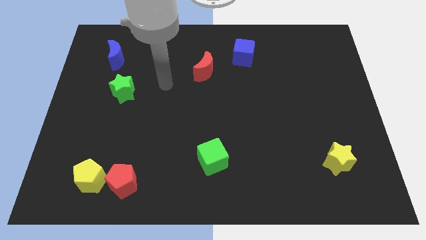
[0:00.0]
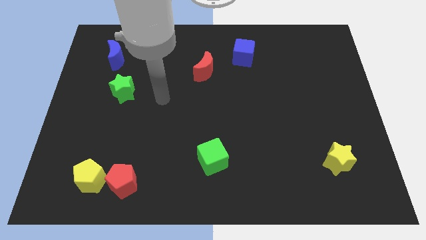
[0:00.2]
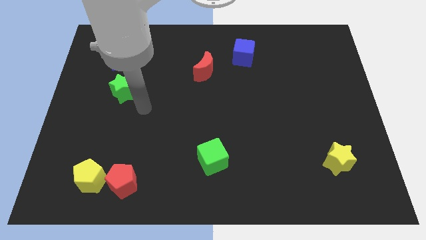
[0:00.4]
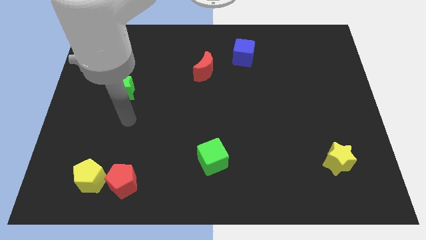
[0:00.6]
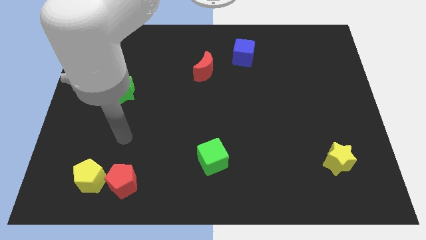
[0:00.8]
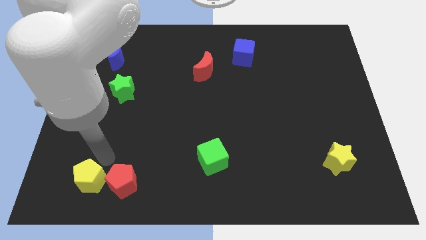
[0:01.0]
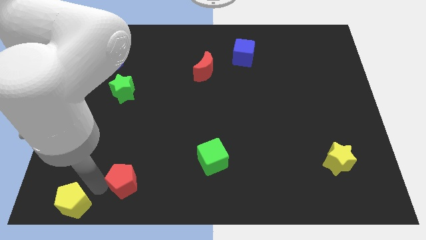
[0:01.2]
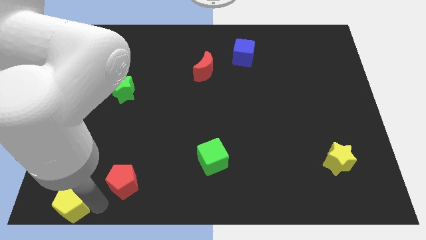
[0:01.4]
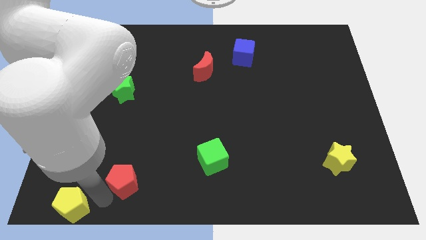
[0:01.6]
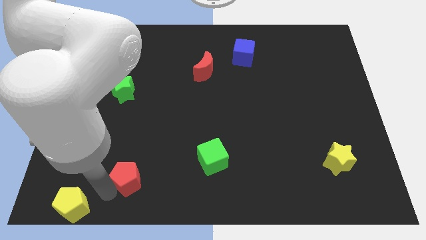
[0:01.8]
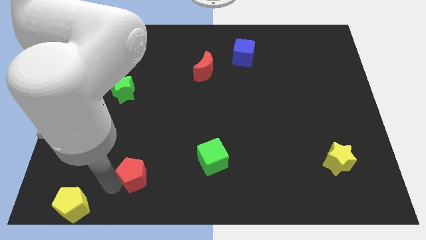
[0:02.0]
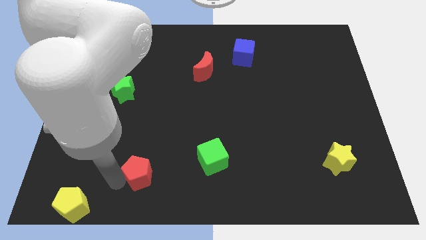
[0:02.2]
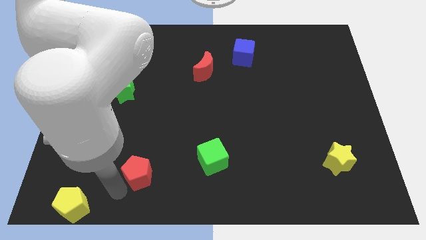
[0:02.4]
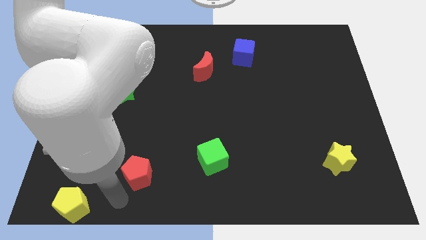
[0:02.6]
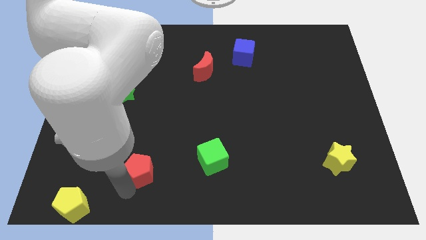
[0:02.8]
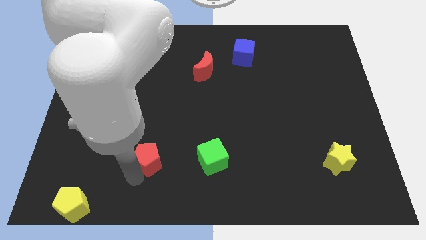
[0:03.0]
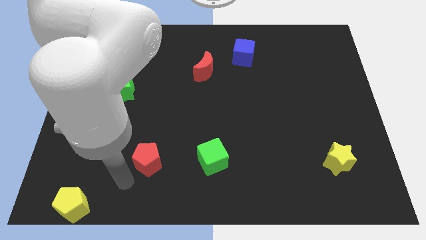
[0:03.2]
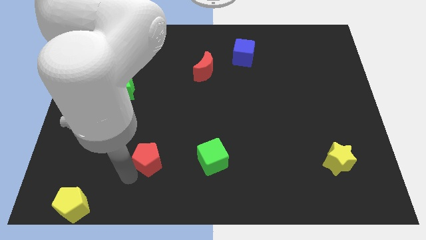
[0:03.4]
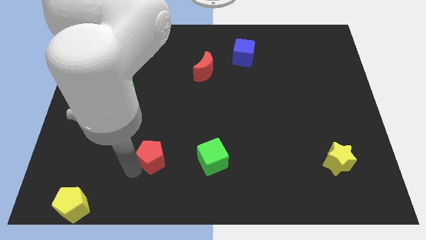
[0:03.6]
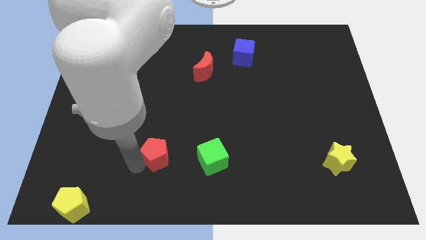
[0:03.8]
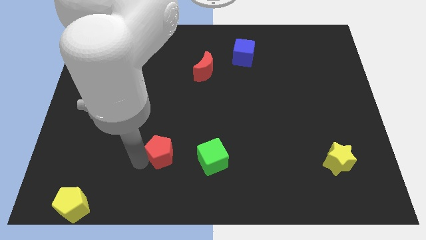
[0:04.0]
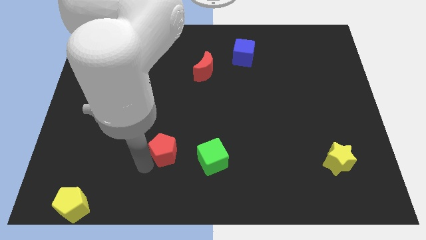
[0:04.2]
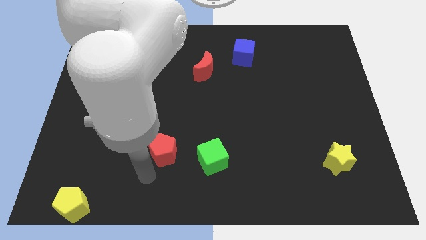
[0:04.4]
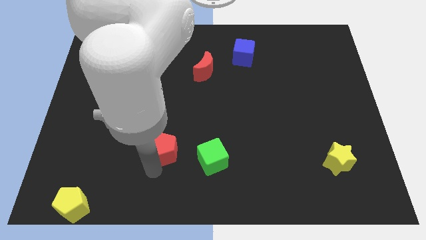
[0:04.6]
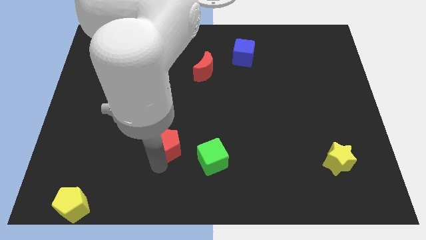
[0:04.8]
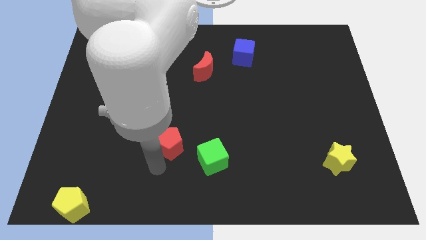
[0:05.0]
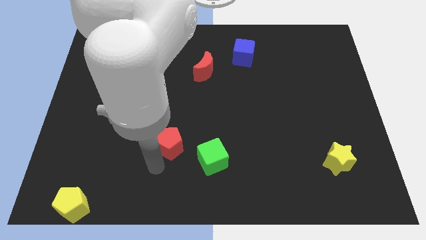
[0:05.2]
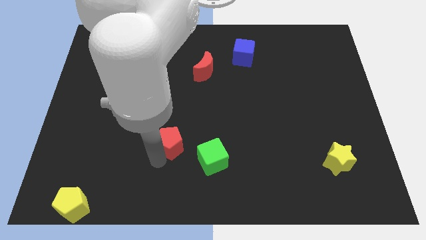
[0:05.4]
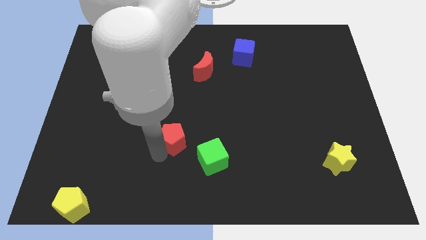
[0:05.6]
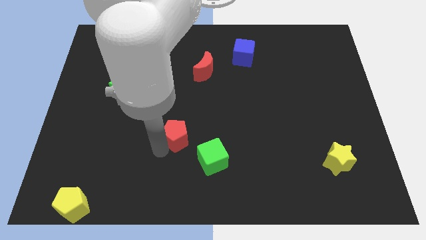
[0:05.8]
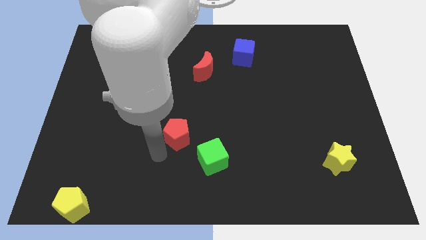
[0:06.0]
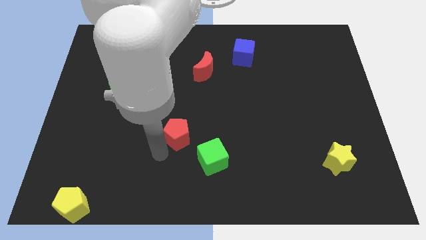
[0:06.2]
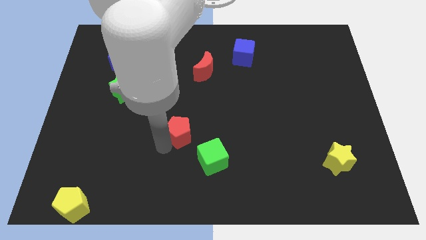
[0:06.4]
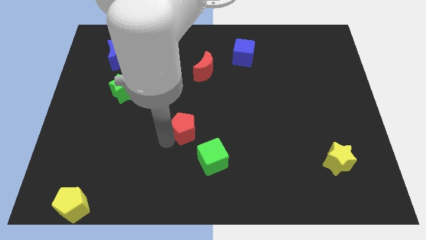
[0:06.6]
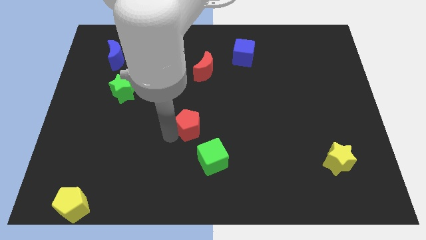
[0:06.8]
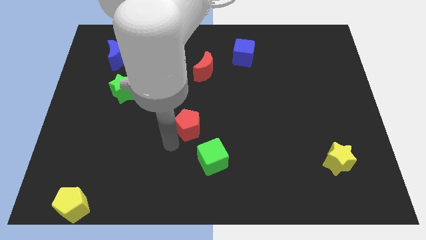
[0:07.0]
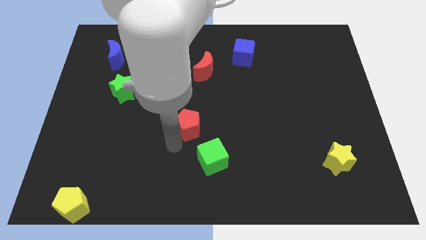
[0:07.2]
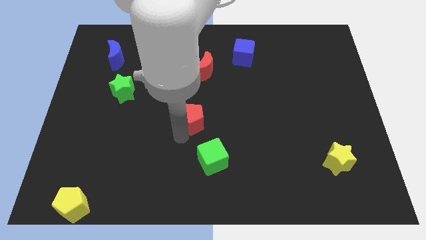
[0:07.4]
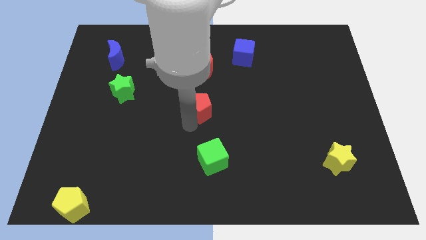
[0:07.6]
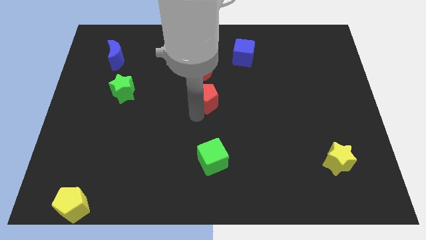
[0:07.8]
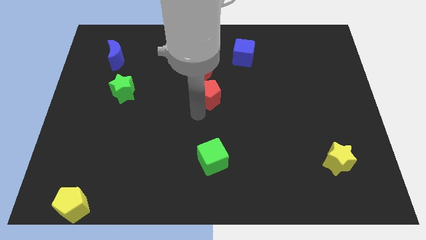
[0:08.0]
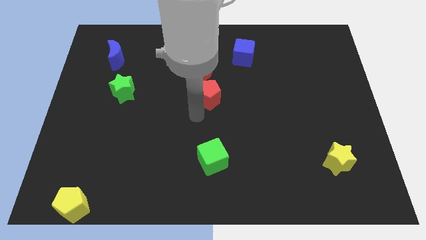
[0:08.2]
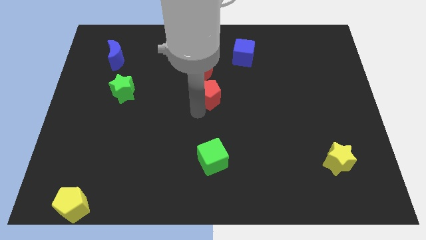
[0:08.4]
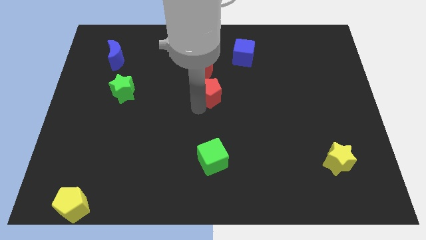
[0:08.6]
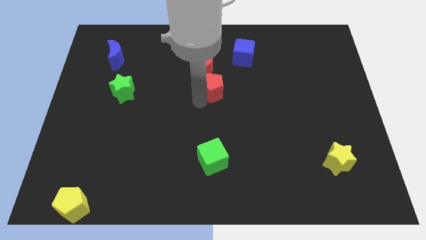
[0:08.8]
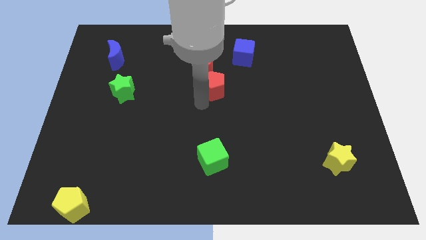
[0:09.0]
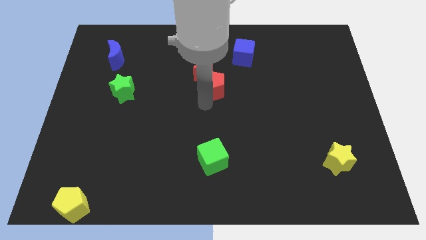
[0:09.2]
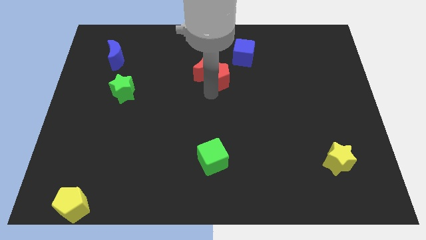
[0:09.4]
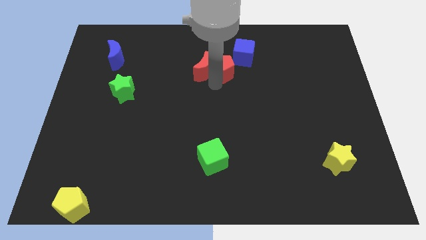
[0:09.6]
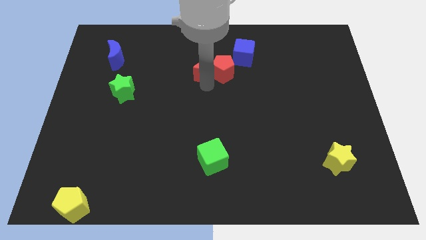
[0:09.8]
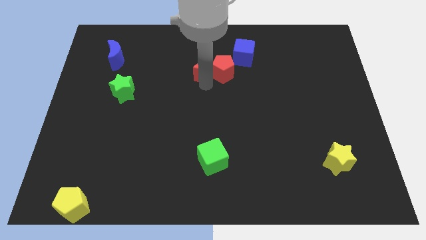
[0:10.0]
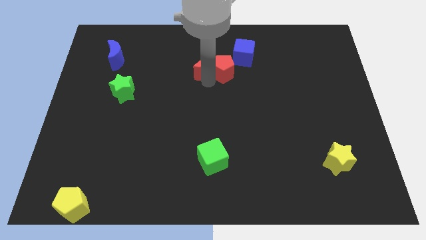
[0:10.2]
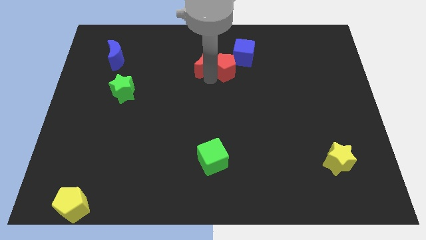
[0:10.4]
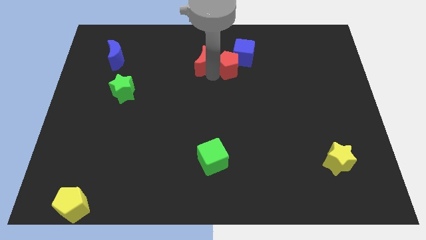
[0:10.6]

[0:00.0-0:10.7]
push the red pentagon next to the blue cube

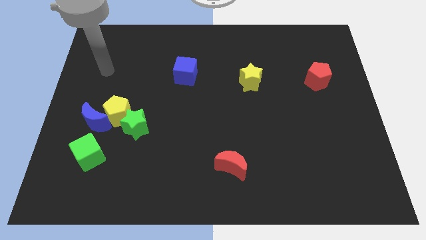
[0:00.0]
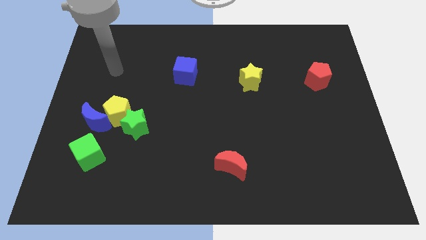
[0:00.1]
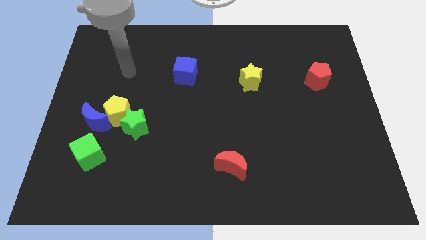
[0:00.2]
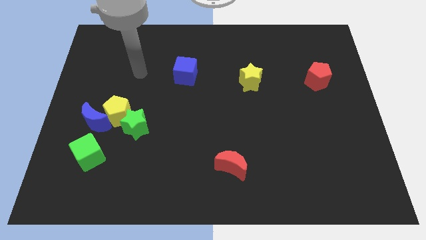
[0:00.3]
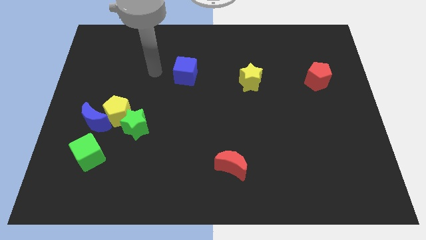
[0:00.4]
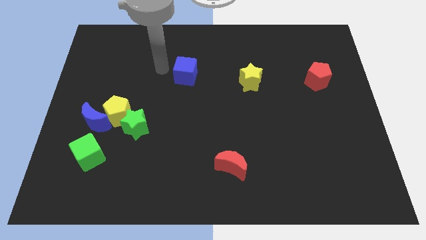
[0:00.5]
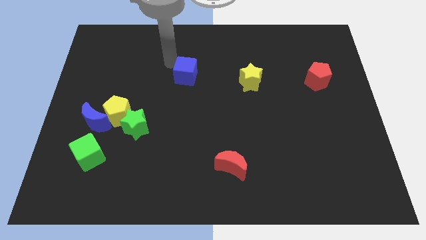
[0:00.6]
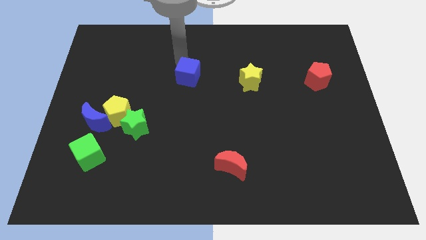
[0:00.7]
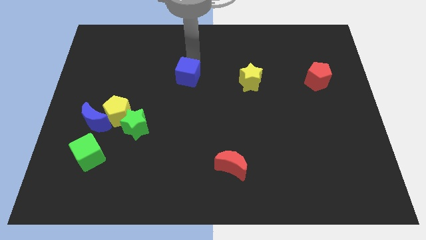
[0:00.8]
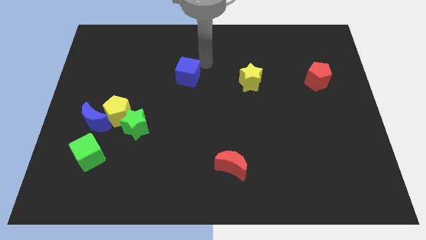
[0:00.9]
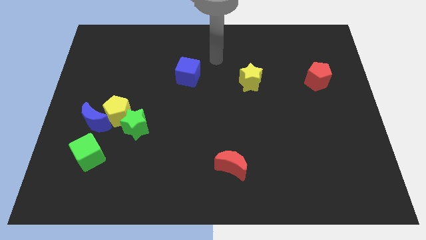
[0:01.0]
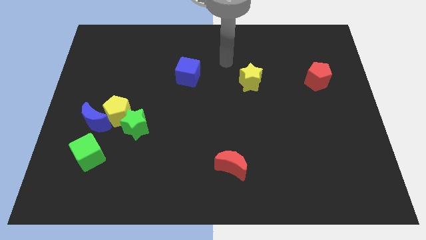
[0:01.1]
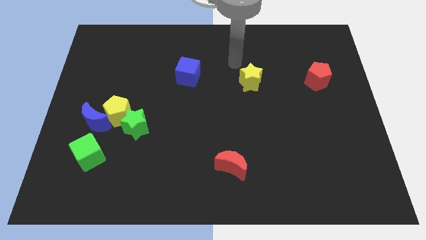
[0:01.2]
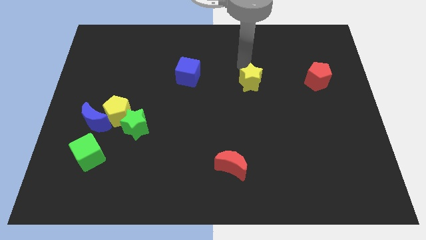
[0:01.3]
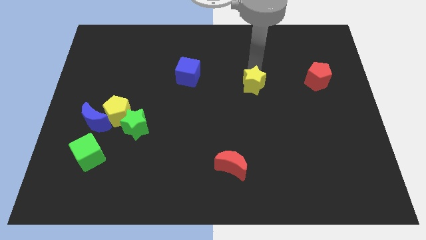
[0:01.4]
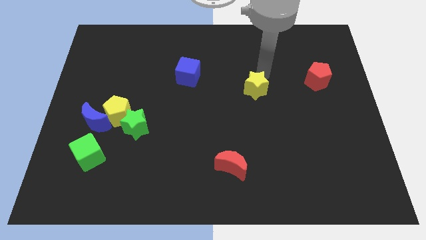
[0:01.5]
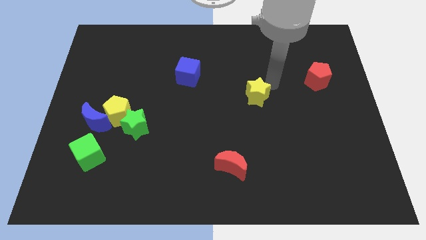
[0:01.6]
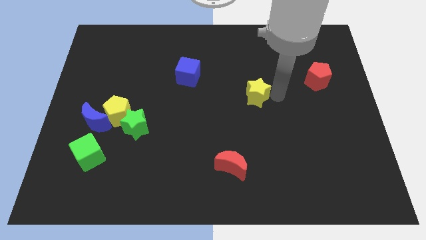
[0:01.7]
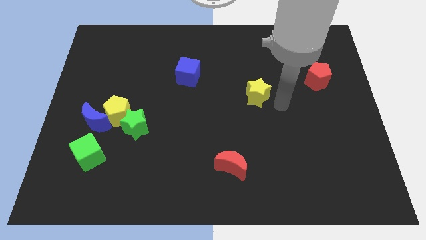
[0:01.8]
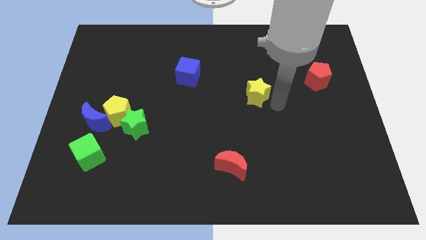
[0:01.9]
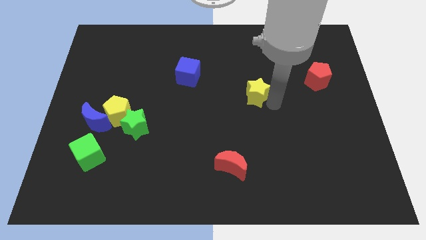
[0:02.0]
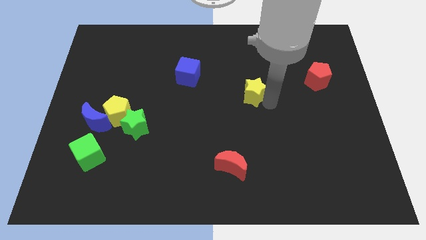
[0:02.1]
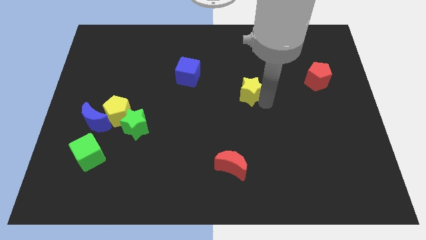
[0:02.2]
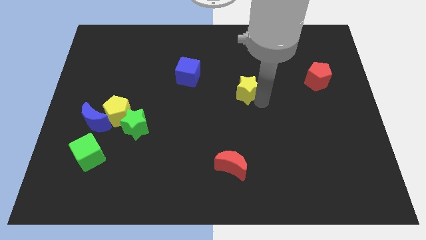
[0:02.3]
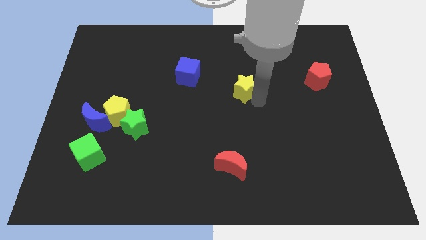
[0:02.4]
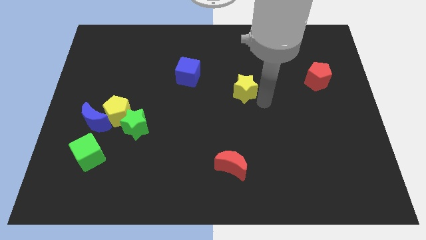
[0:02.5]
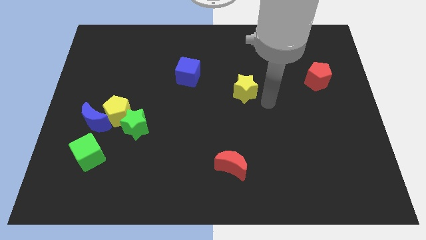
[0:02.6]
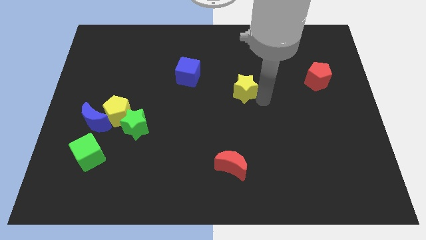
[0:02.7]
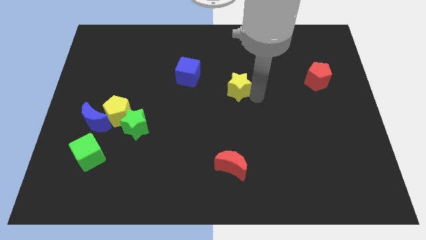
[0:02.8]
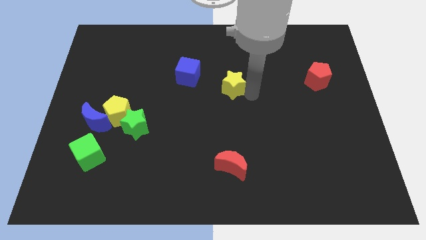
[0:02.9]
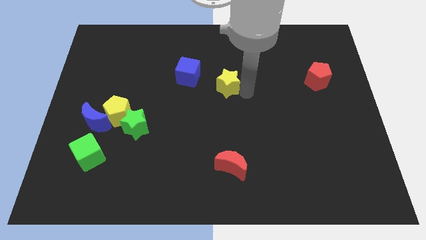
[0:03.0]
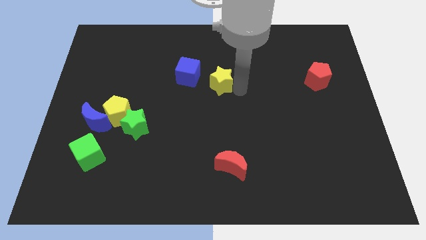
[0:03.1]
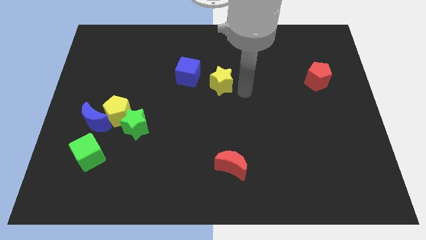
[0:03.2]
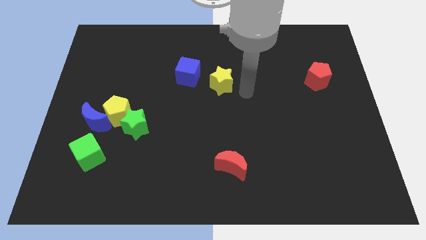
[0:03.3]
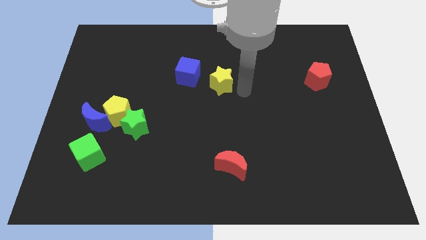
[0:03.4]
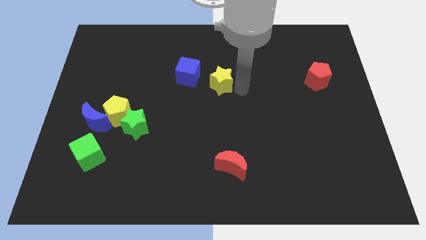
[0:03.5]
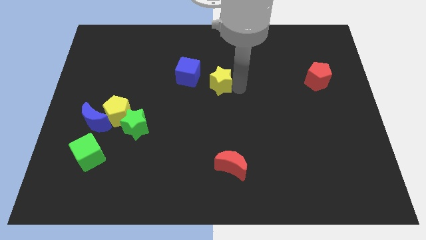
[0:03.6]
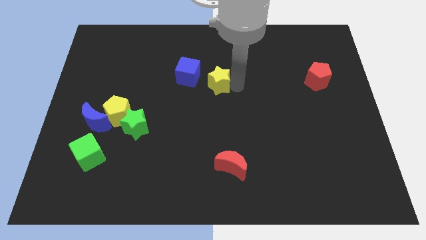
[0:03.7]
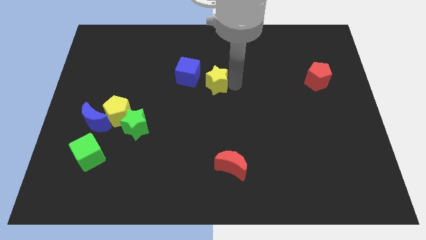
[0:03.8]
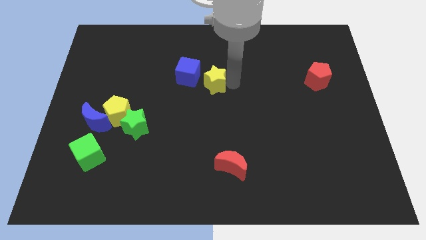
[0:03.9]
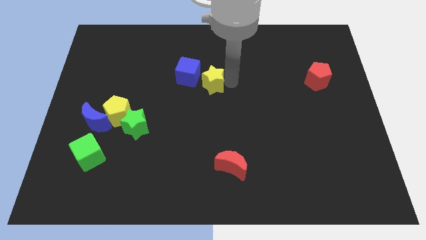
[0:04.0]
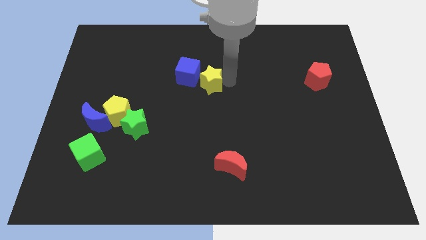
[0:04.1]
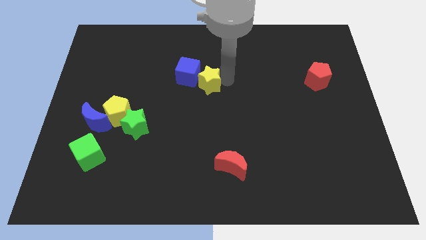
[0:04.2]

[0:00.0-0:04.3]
put the yellow star towards the blue cube
